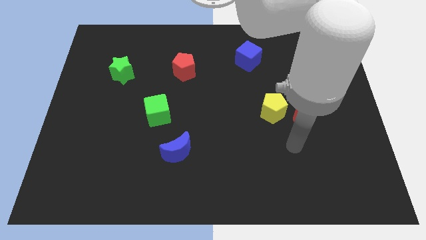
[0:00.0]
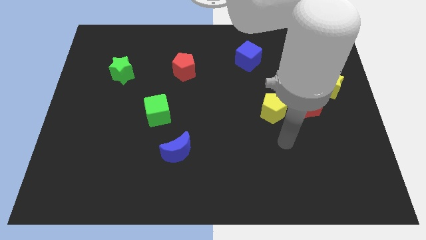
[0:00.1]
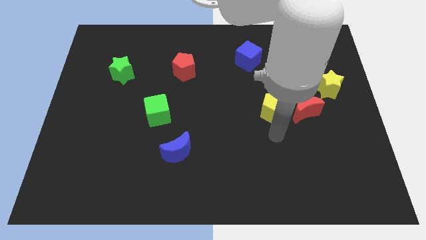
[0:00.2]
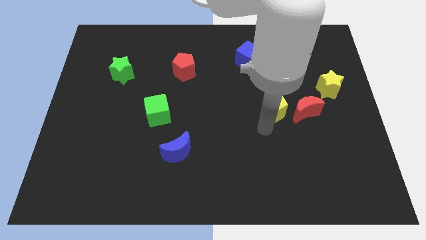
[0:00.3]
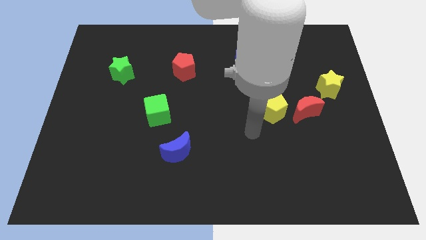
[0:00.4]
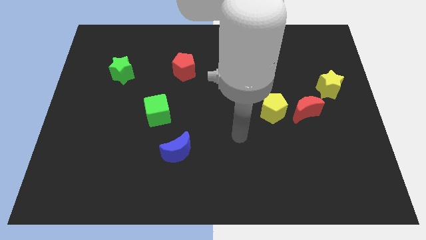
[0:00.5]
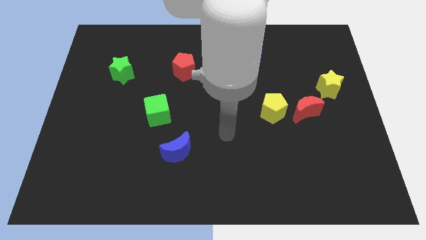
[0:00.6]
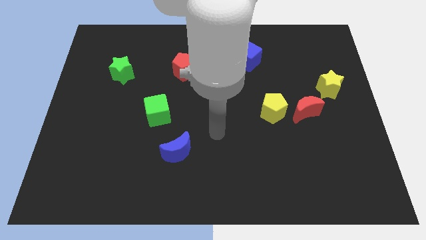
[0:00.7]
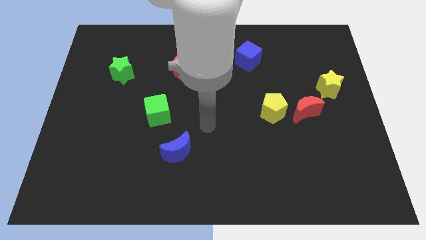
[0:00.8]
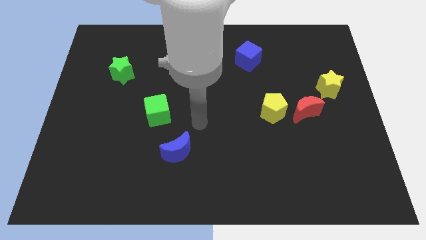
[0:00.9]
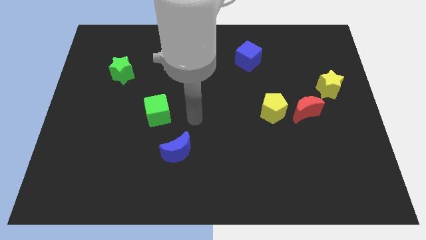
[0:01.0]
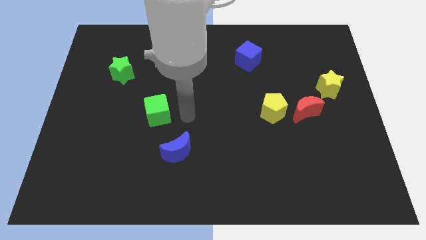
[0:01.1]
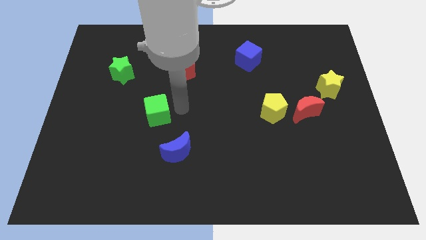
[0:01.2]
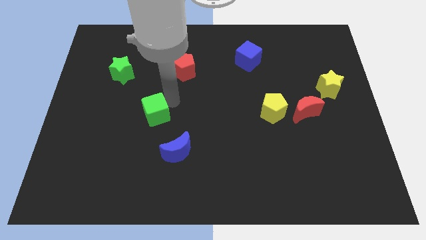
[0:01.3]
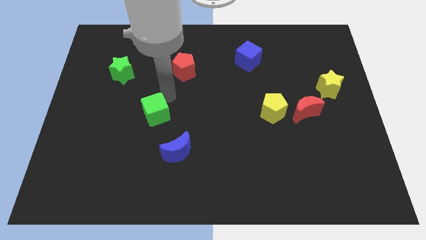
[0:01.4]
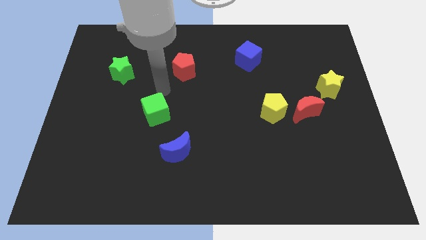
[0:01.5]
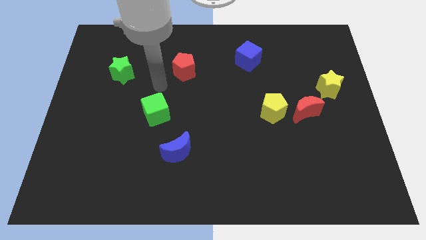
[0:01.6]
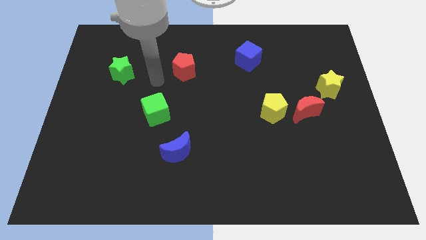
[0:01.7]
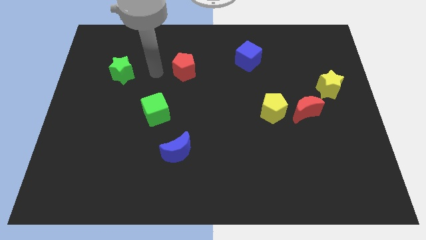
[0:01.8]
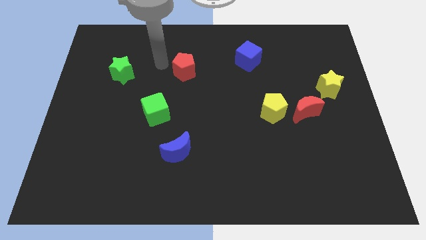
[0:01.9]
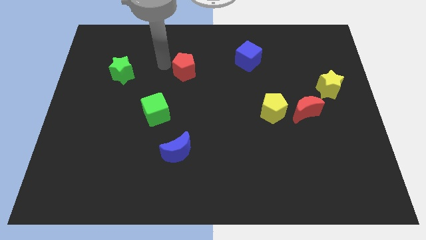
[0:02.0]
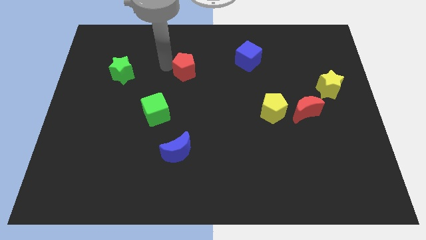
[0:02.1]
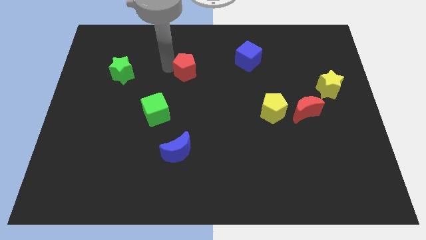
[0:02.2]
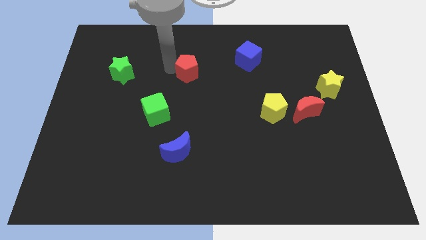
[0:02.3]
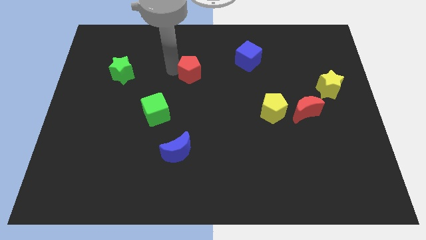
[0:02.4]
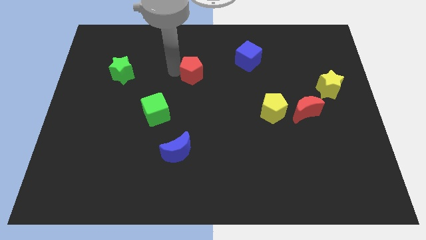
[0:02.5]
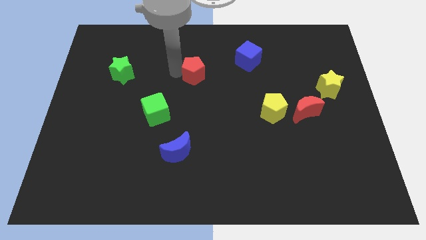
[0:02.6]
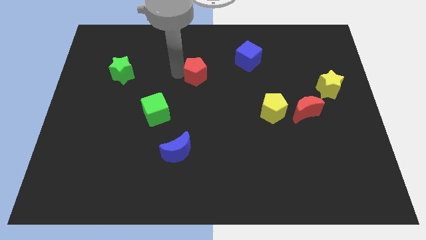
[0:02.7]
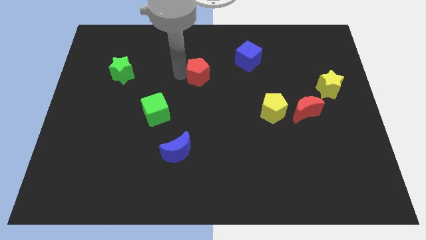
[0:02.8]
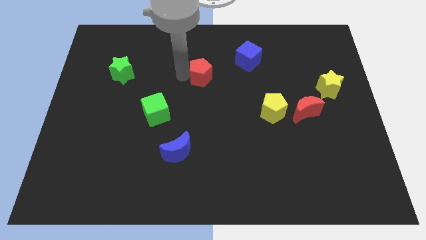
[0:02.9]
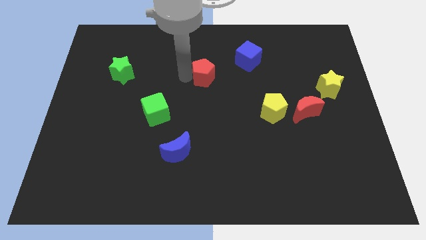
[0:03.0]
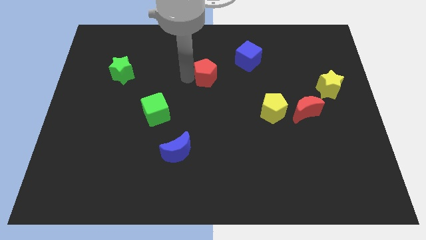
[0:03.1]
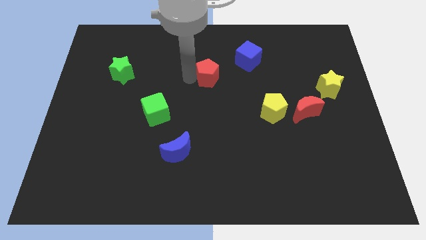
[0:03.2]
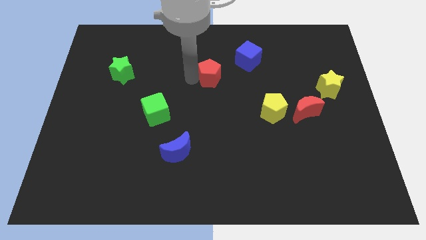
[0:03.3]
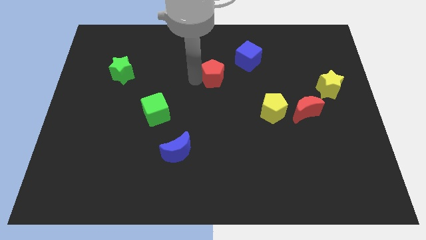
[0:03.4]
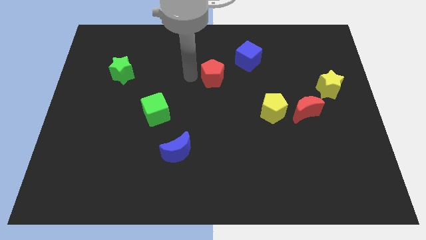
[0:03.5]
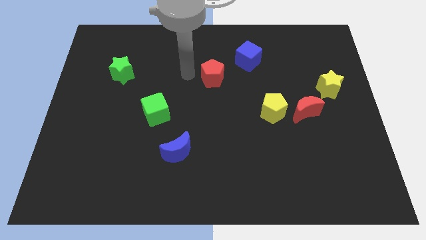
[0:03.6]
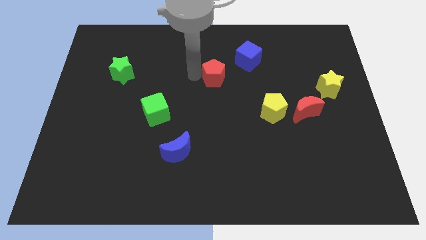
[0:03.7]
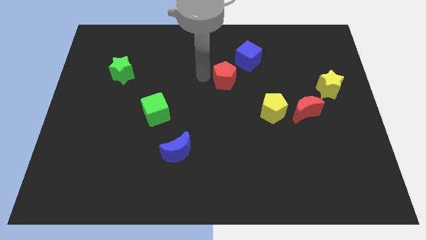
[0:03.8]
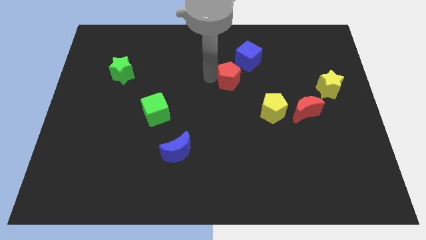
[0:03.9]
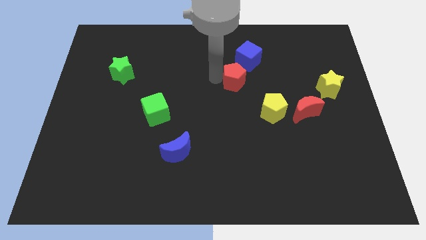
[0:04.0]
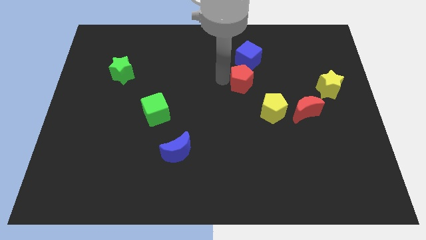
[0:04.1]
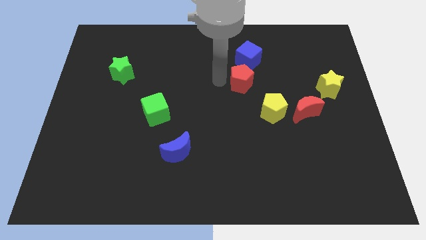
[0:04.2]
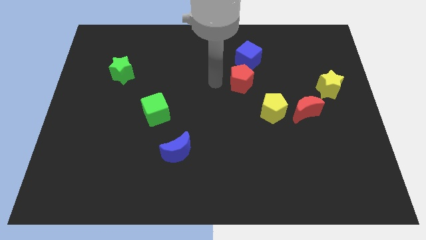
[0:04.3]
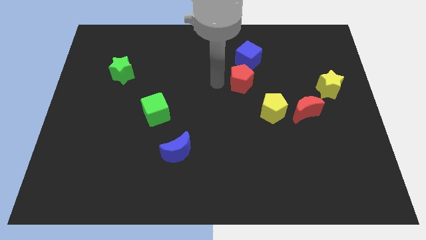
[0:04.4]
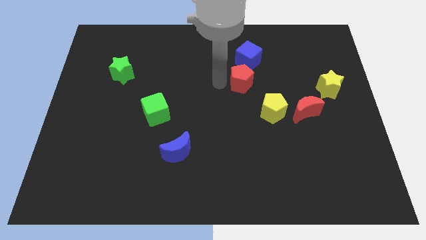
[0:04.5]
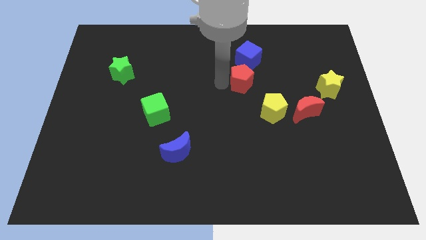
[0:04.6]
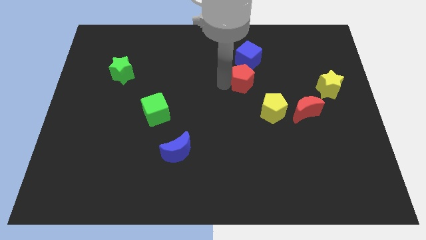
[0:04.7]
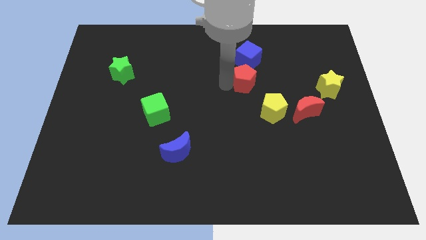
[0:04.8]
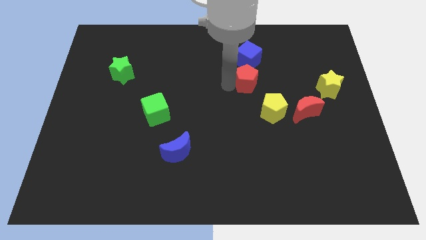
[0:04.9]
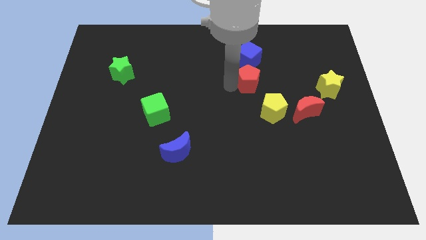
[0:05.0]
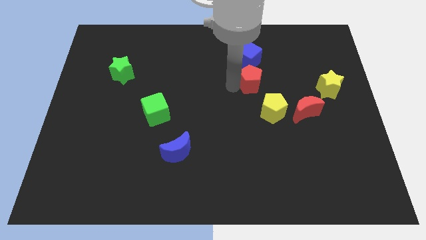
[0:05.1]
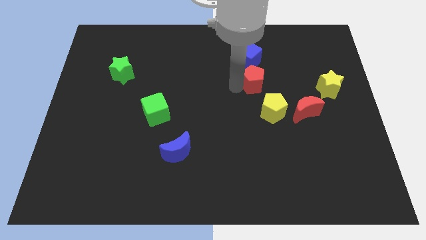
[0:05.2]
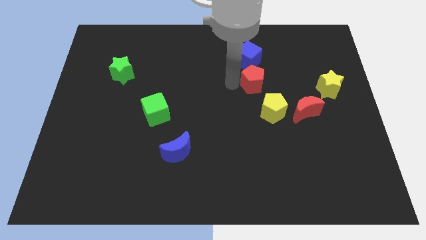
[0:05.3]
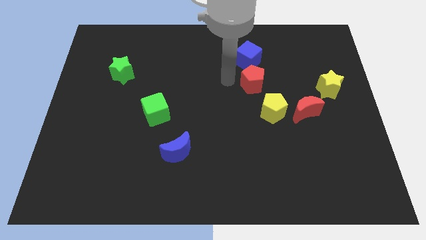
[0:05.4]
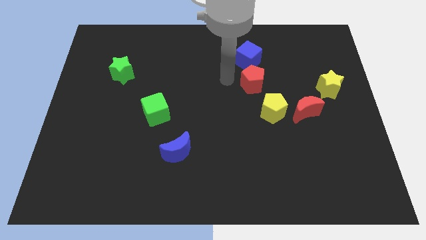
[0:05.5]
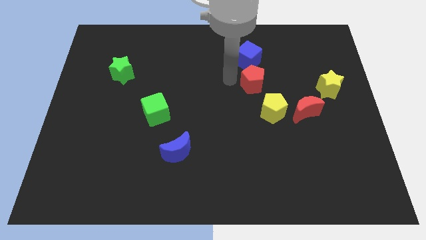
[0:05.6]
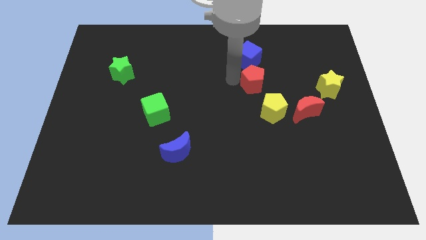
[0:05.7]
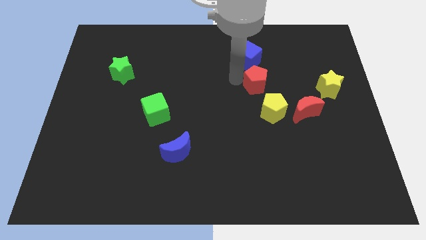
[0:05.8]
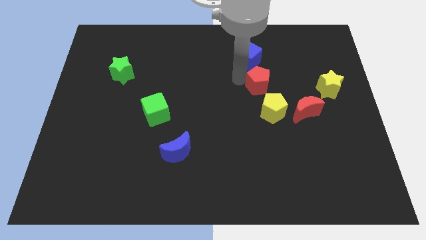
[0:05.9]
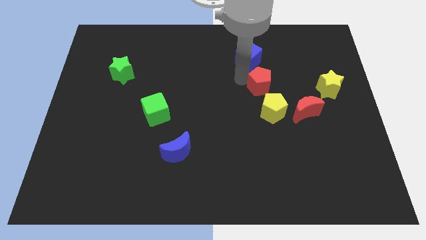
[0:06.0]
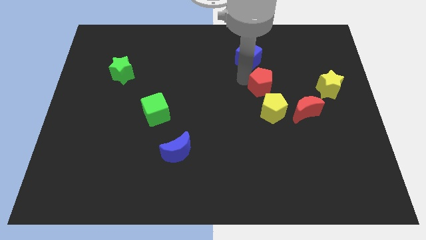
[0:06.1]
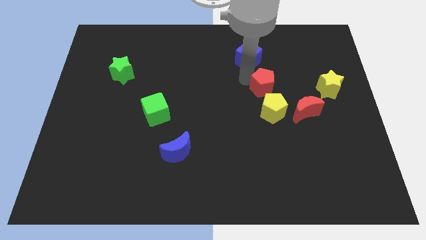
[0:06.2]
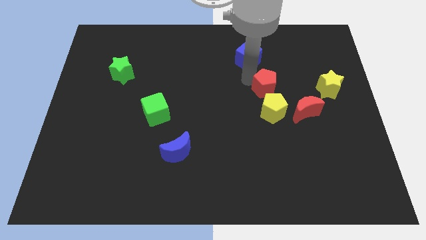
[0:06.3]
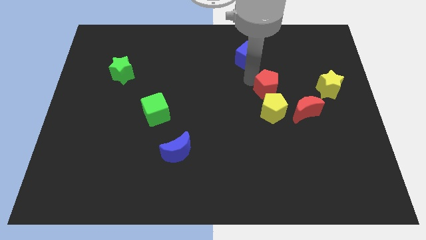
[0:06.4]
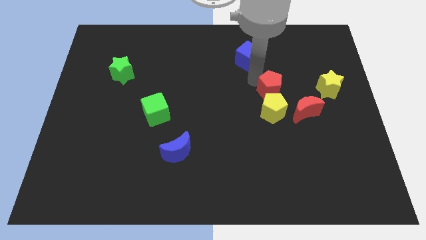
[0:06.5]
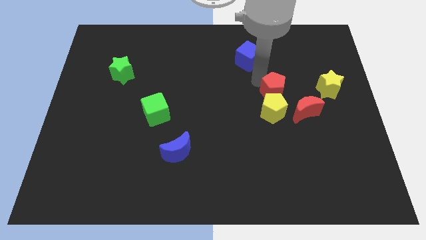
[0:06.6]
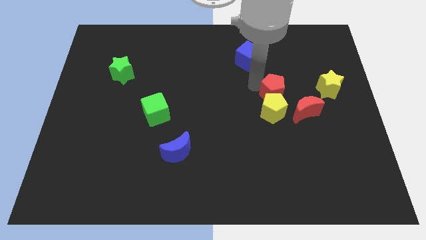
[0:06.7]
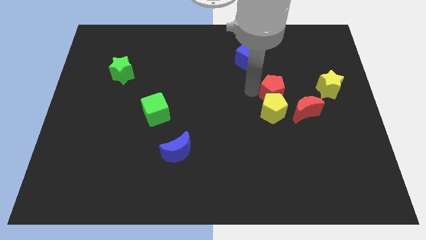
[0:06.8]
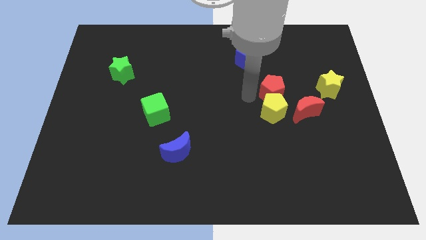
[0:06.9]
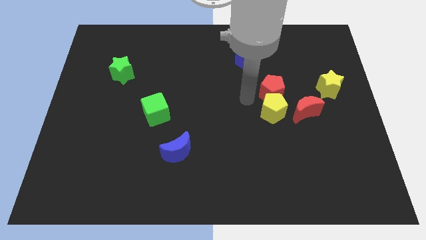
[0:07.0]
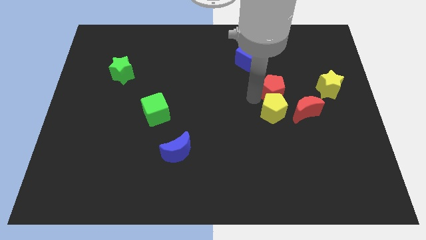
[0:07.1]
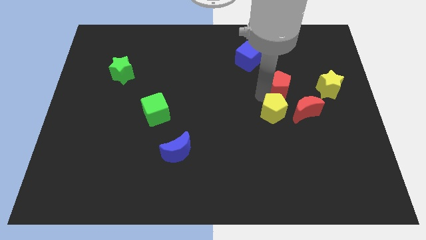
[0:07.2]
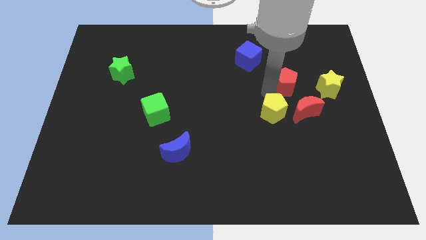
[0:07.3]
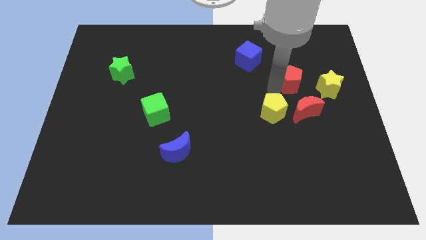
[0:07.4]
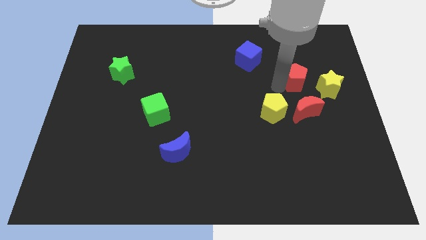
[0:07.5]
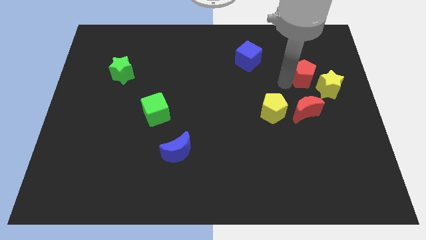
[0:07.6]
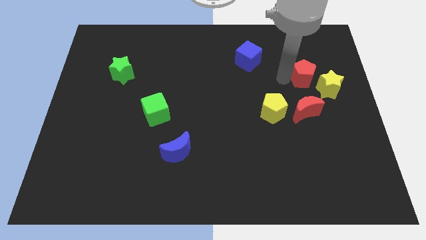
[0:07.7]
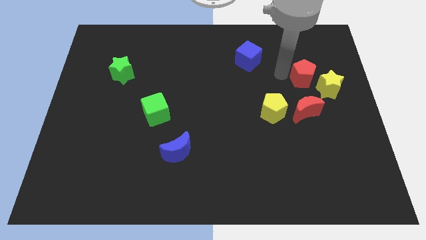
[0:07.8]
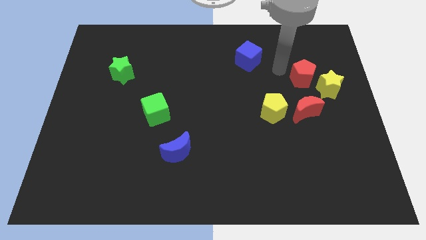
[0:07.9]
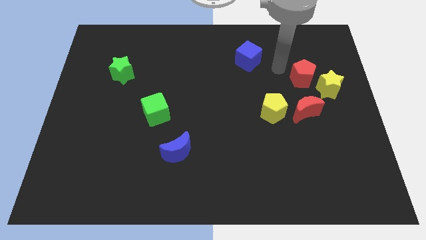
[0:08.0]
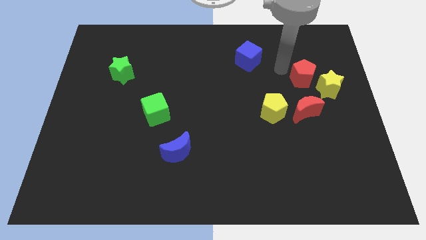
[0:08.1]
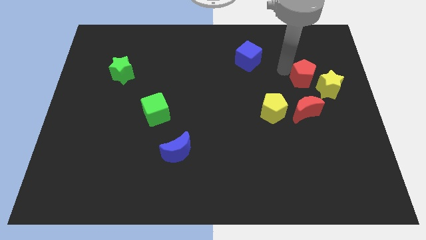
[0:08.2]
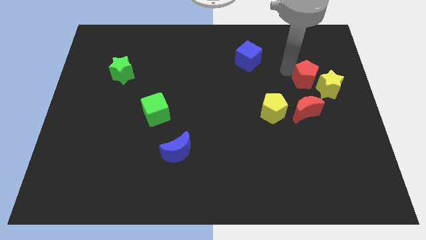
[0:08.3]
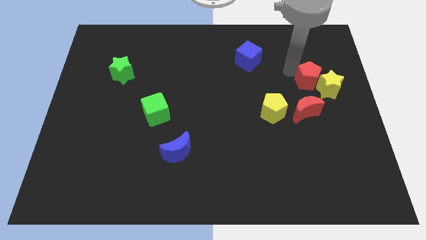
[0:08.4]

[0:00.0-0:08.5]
put the red pentagon towards the yellow star
